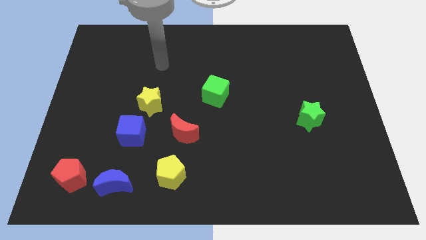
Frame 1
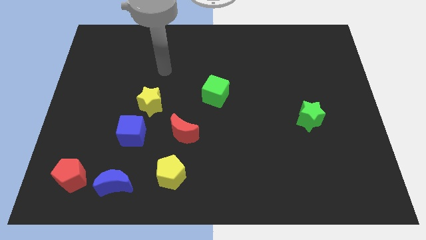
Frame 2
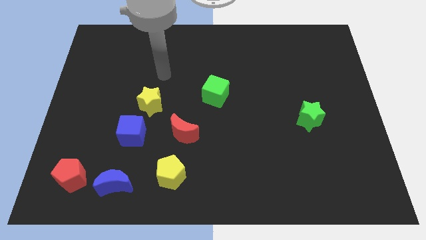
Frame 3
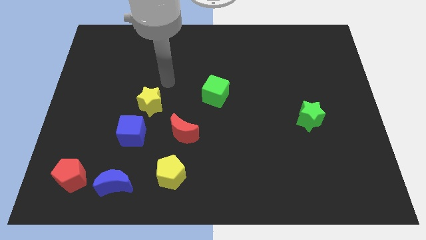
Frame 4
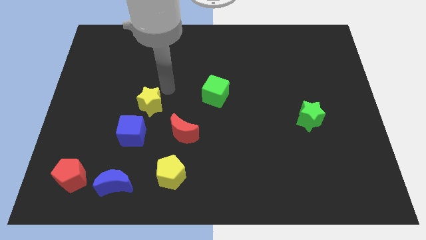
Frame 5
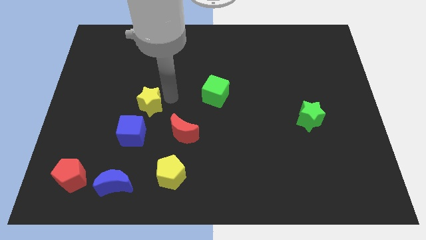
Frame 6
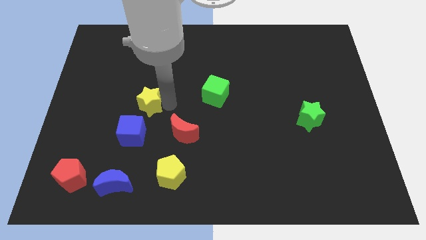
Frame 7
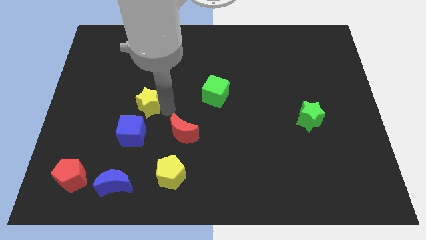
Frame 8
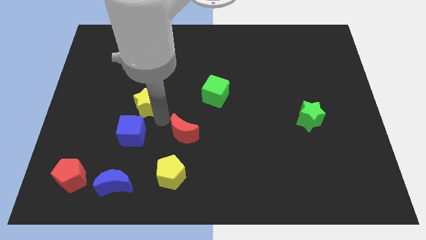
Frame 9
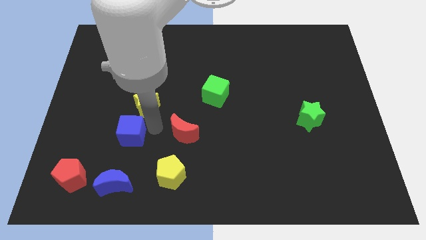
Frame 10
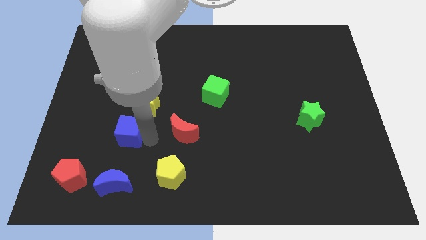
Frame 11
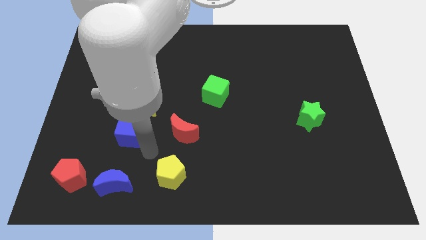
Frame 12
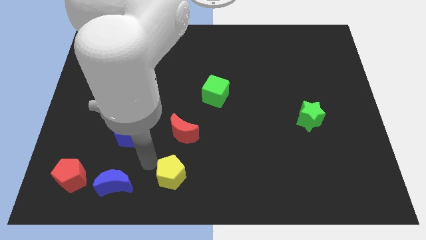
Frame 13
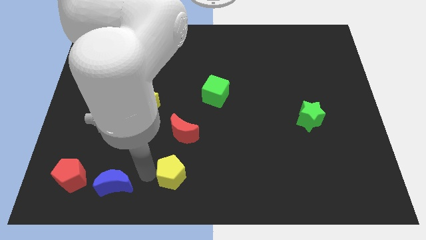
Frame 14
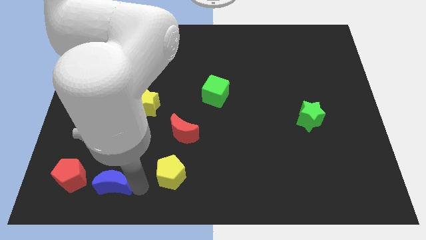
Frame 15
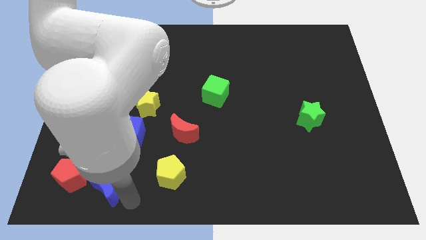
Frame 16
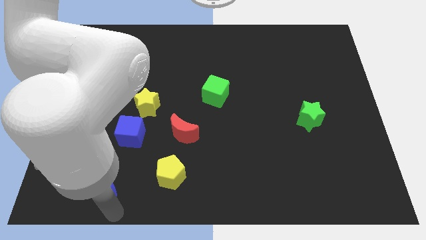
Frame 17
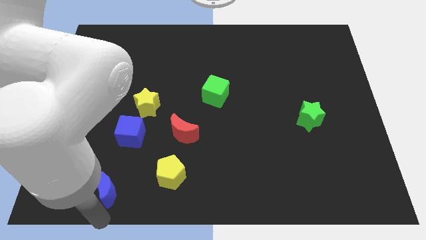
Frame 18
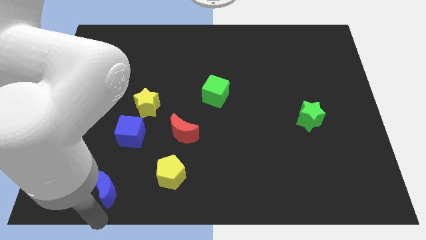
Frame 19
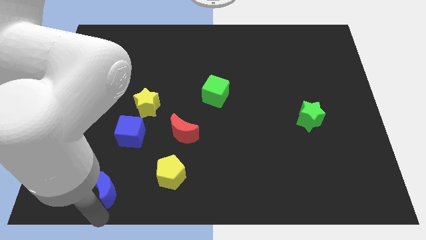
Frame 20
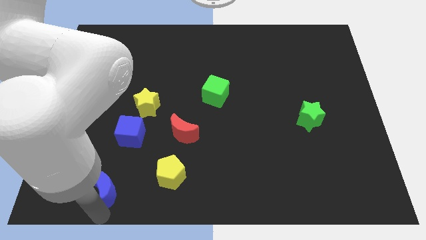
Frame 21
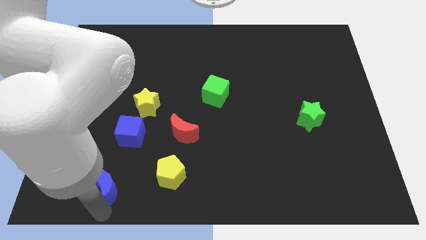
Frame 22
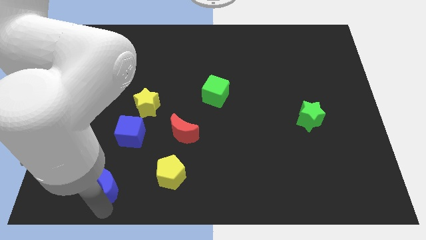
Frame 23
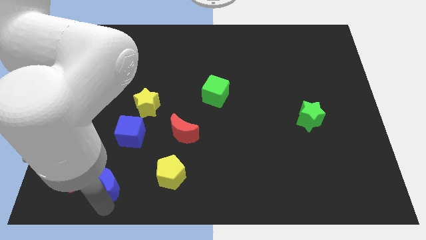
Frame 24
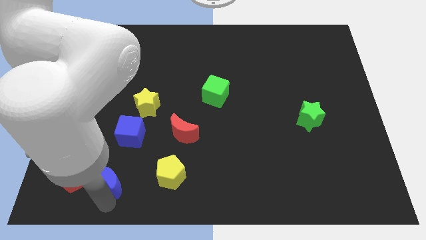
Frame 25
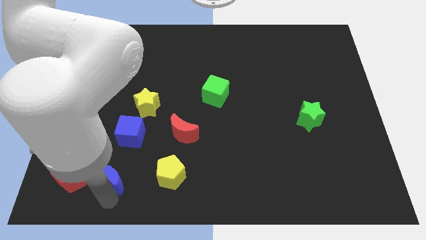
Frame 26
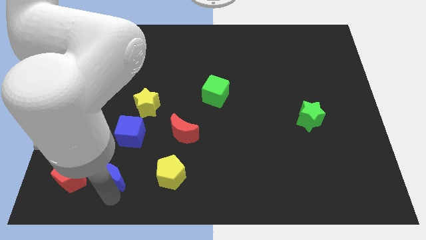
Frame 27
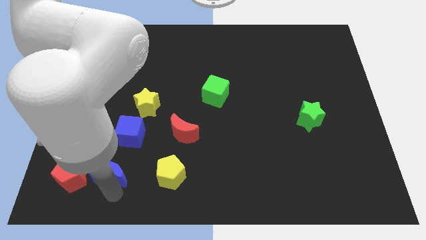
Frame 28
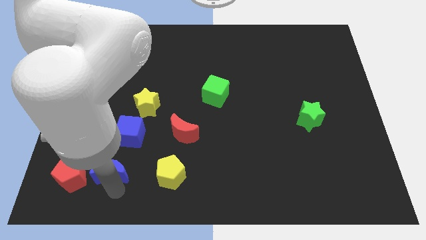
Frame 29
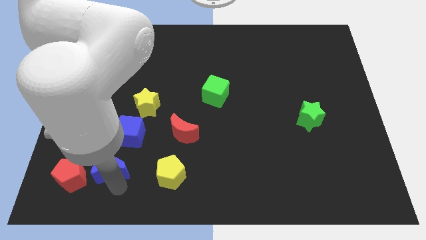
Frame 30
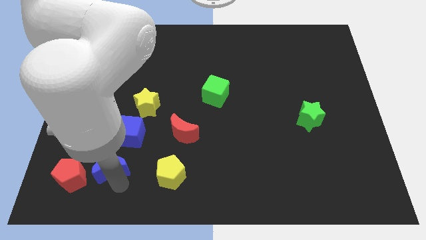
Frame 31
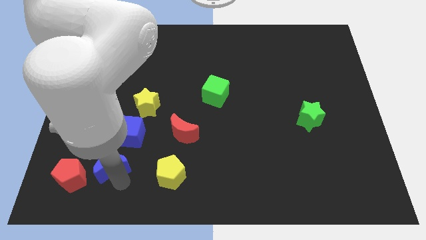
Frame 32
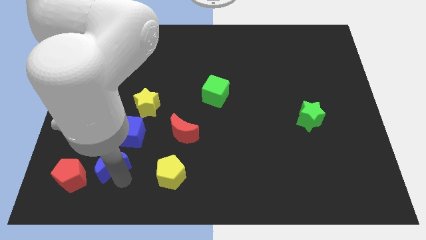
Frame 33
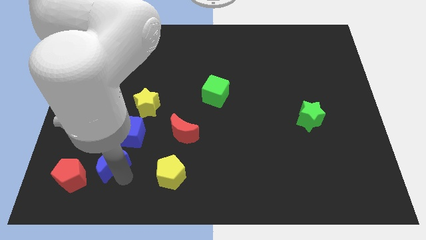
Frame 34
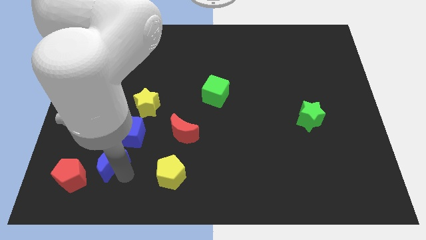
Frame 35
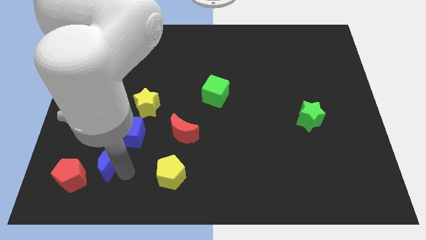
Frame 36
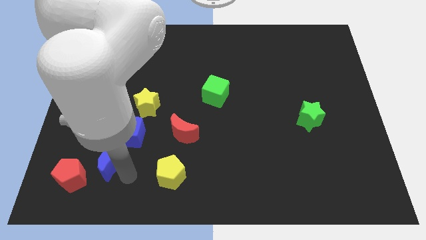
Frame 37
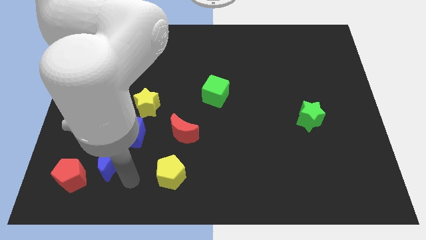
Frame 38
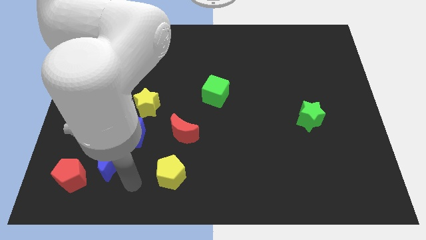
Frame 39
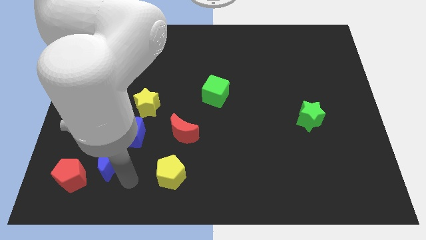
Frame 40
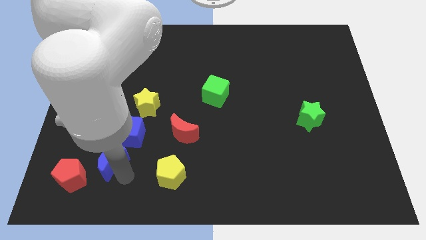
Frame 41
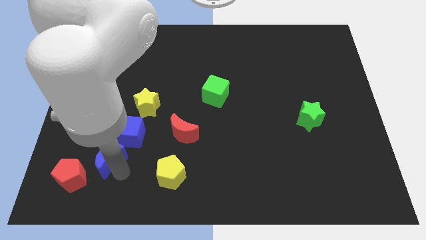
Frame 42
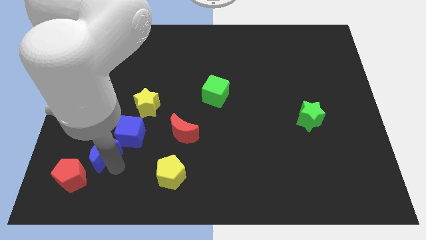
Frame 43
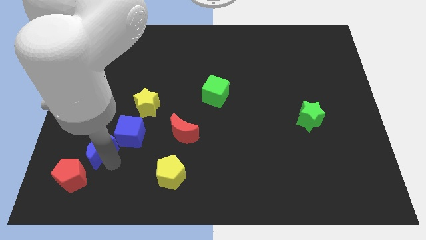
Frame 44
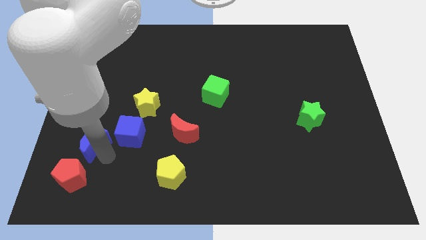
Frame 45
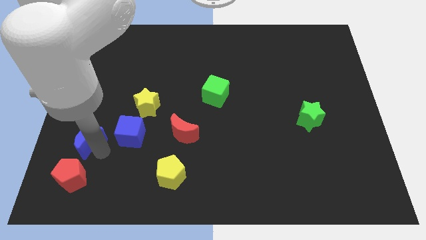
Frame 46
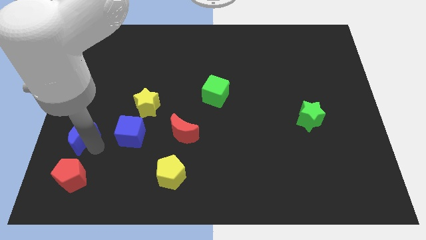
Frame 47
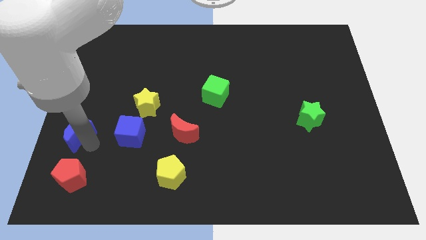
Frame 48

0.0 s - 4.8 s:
move the blue moon to the left side of the board

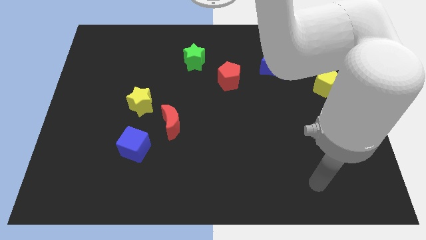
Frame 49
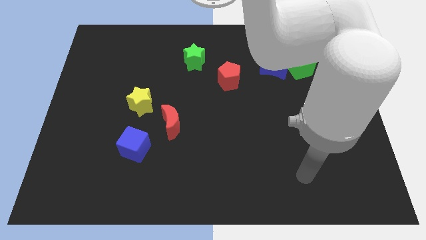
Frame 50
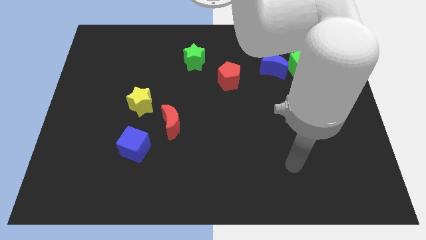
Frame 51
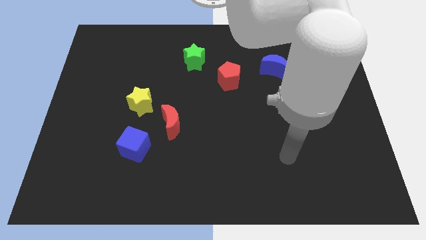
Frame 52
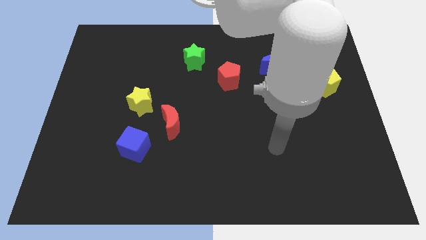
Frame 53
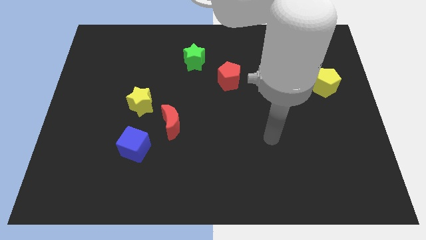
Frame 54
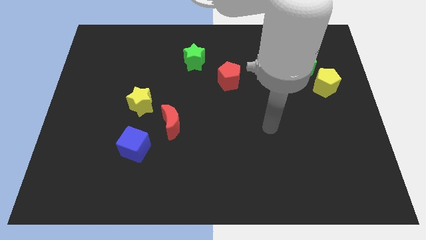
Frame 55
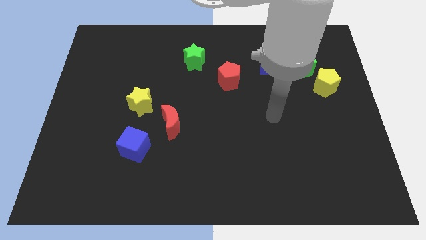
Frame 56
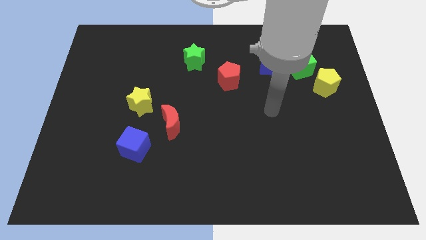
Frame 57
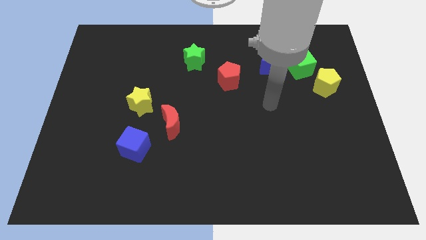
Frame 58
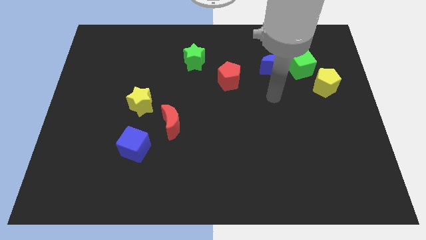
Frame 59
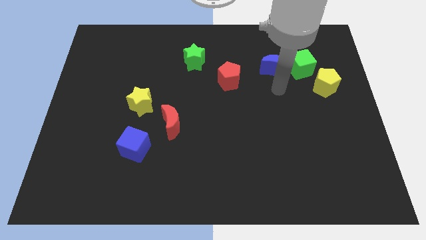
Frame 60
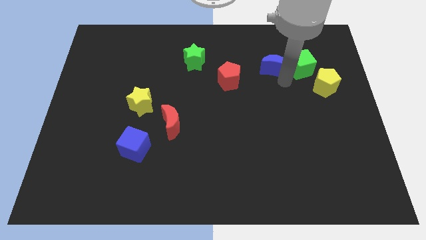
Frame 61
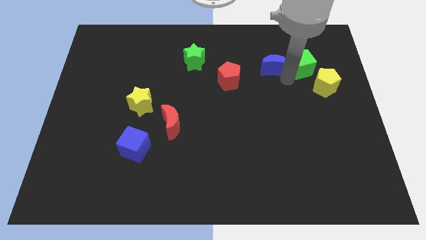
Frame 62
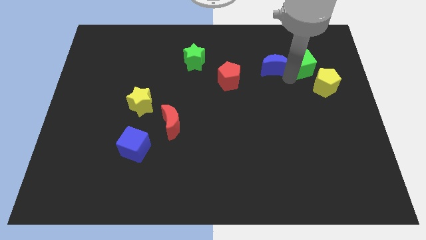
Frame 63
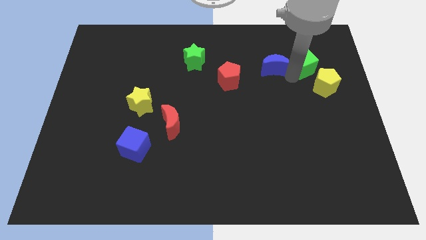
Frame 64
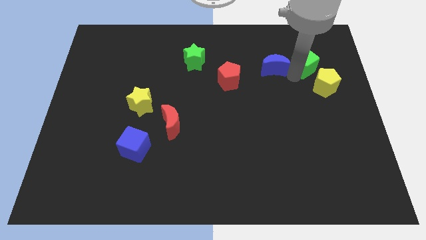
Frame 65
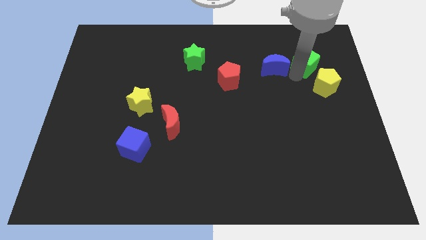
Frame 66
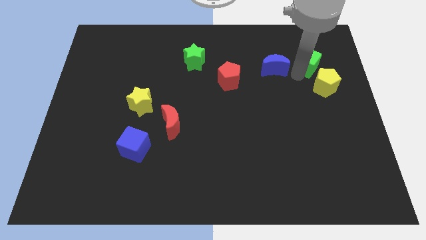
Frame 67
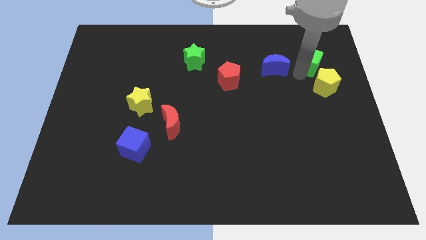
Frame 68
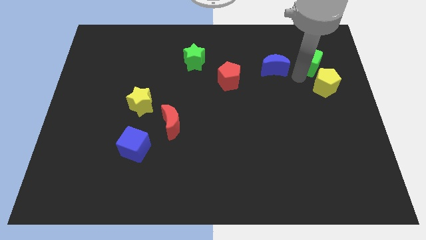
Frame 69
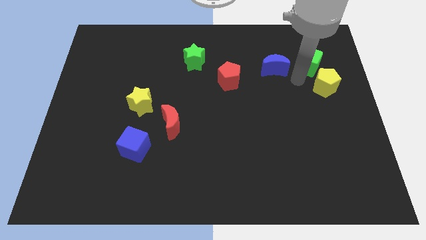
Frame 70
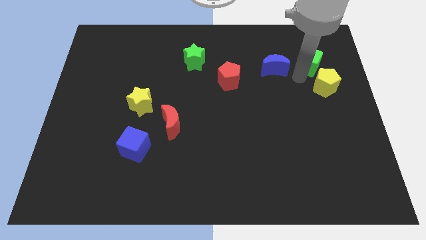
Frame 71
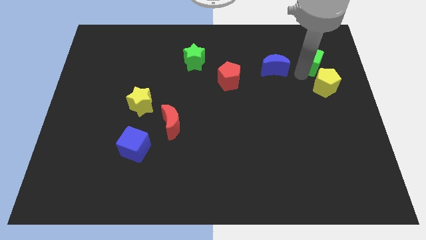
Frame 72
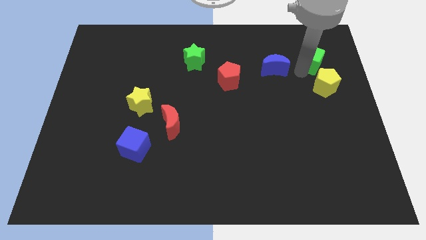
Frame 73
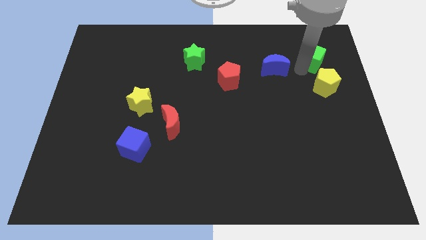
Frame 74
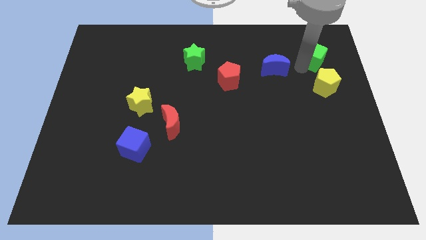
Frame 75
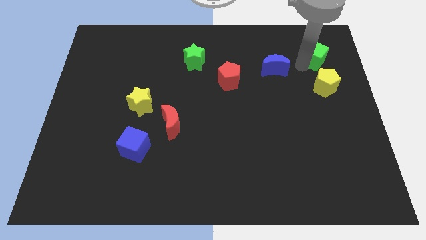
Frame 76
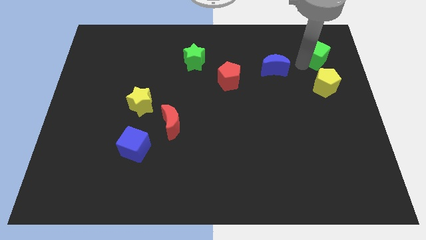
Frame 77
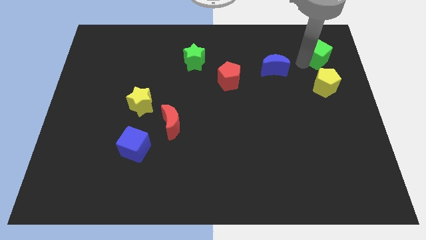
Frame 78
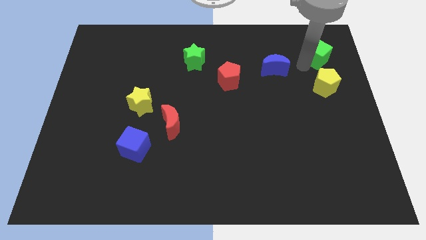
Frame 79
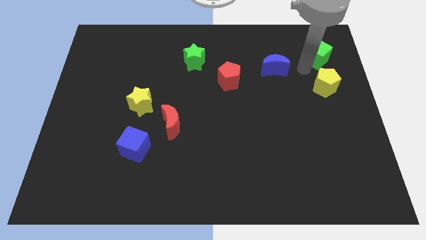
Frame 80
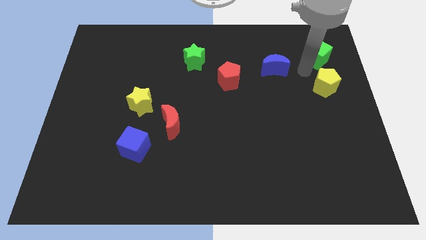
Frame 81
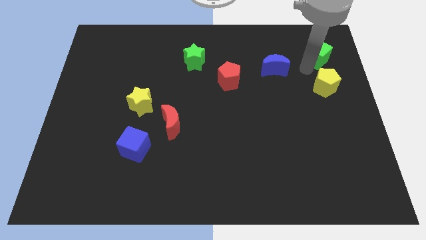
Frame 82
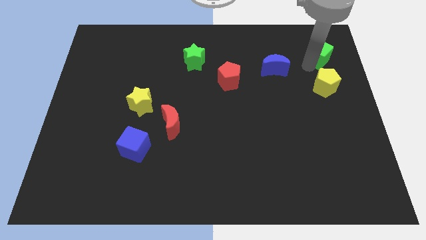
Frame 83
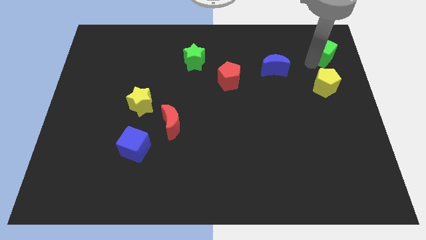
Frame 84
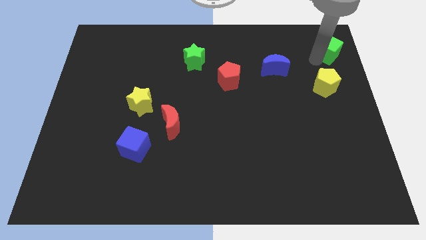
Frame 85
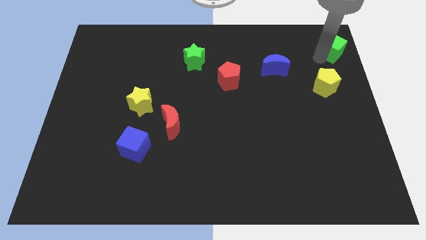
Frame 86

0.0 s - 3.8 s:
move the green cube to the top right of the board
